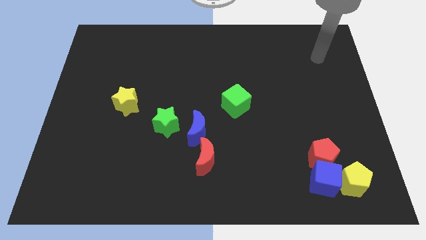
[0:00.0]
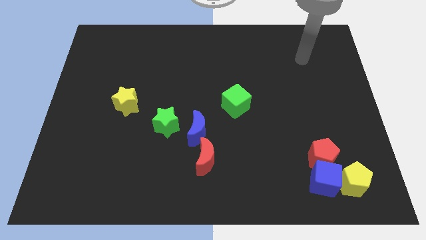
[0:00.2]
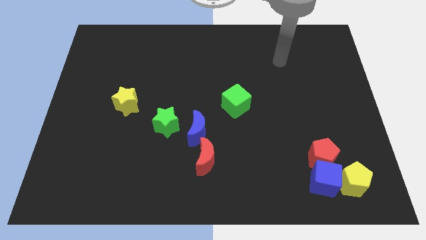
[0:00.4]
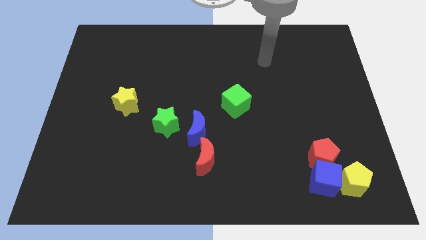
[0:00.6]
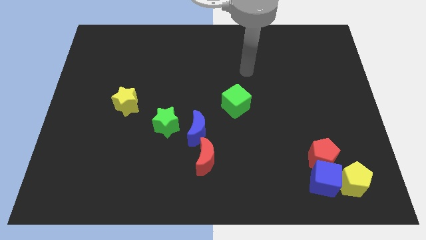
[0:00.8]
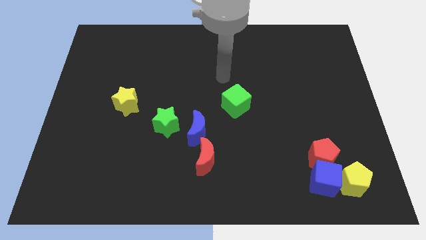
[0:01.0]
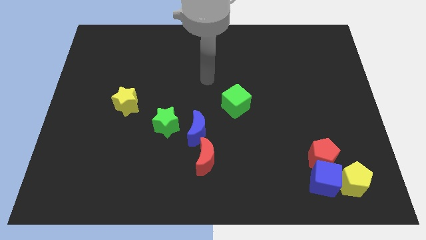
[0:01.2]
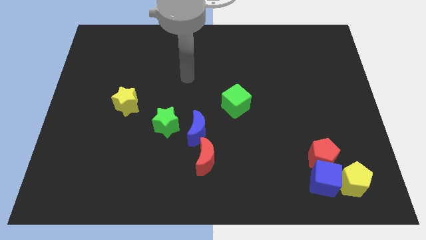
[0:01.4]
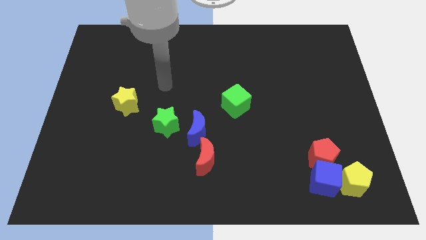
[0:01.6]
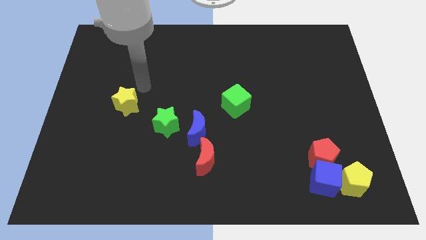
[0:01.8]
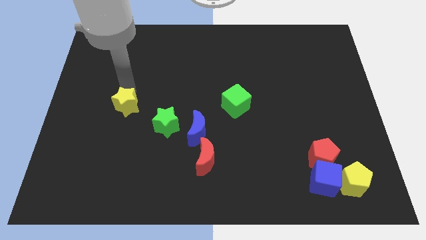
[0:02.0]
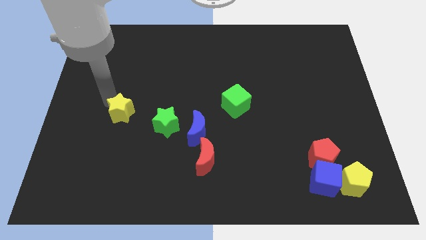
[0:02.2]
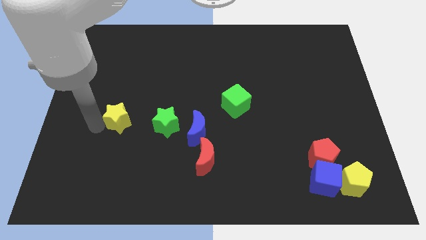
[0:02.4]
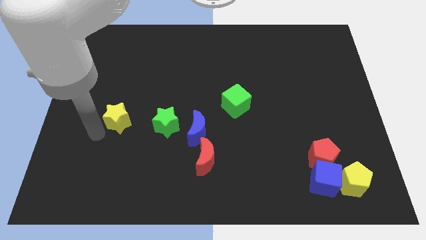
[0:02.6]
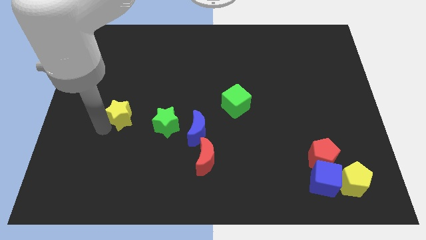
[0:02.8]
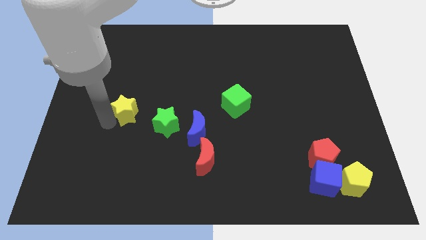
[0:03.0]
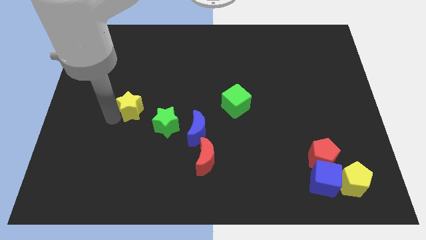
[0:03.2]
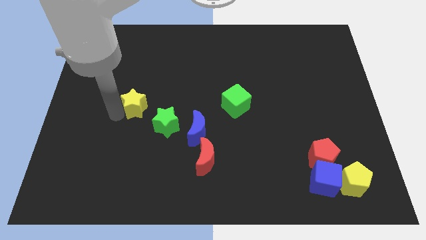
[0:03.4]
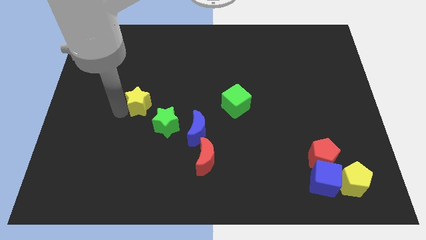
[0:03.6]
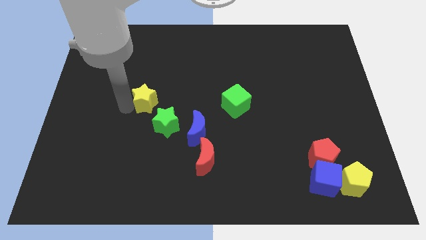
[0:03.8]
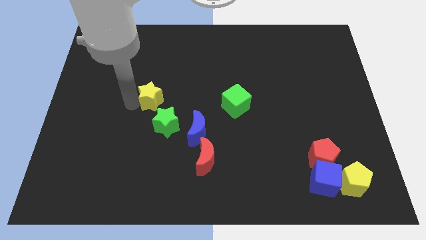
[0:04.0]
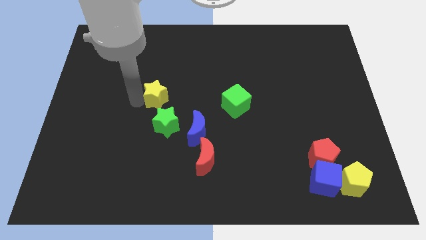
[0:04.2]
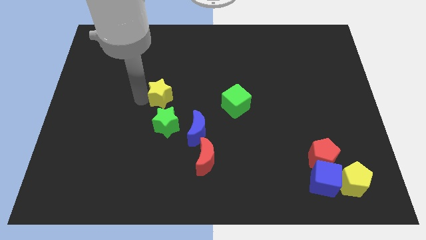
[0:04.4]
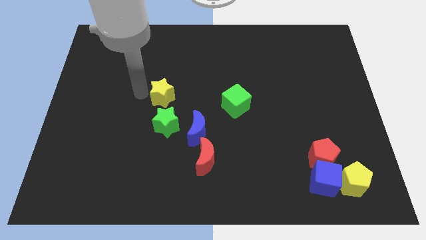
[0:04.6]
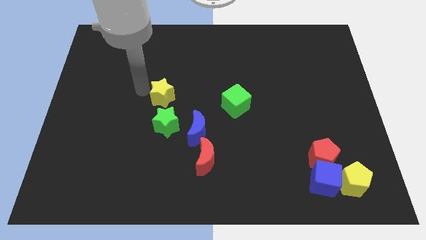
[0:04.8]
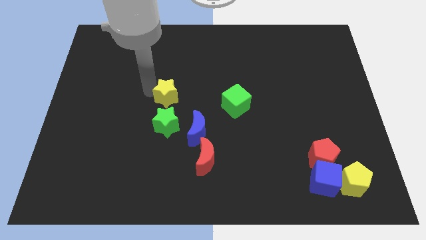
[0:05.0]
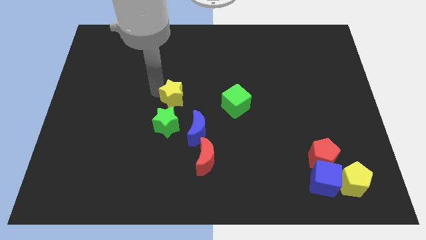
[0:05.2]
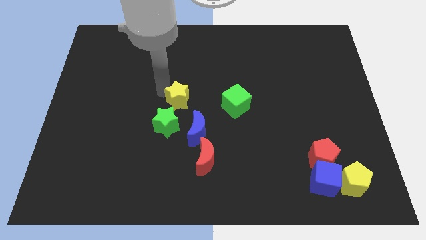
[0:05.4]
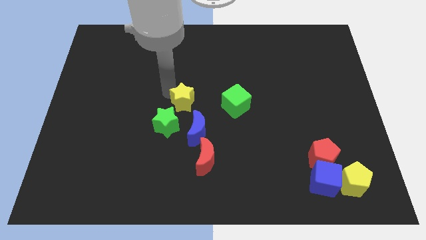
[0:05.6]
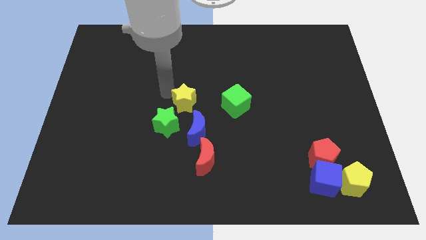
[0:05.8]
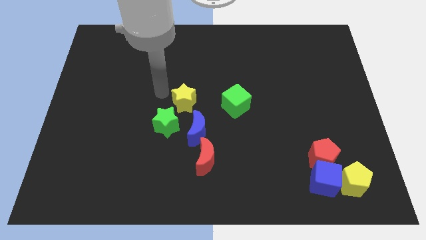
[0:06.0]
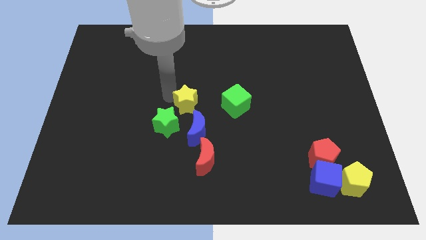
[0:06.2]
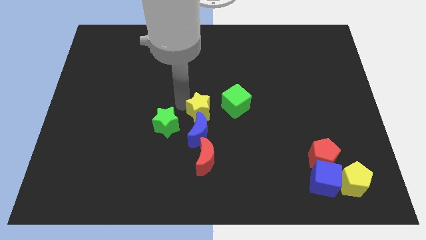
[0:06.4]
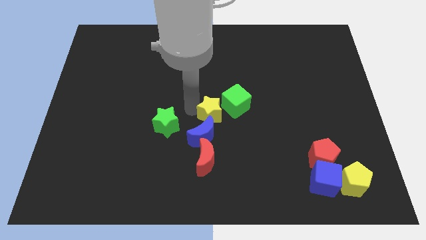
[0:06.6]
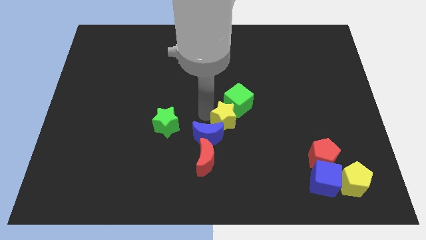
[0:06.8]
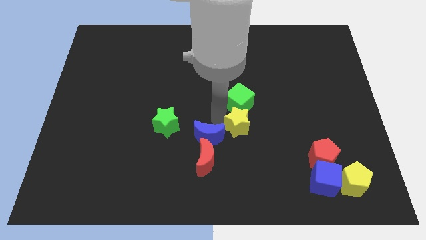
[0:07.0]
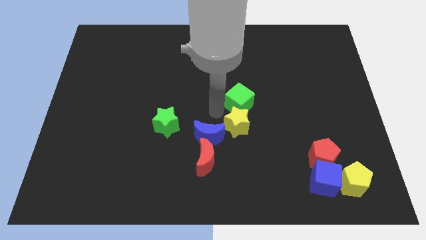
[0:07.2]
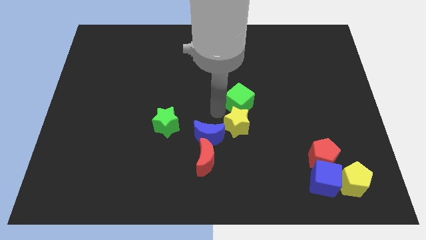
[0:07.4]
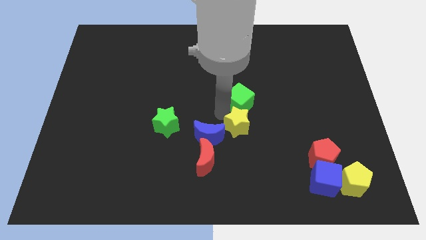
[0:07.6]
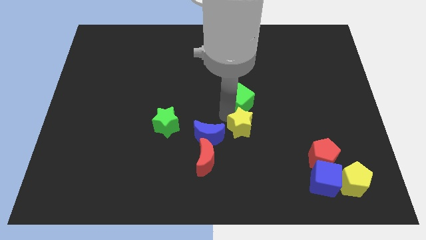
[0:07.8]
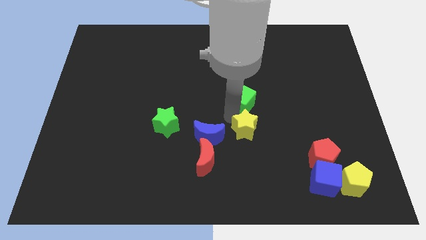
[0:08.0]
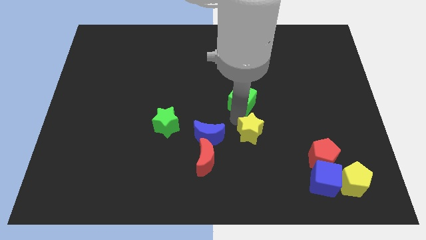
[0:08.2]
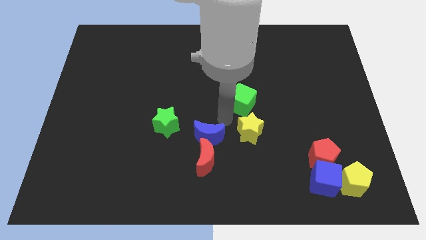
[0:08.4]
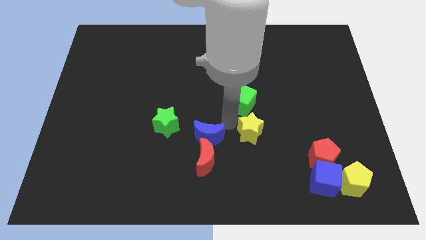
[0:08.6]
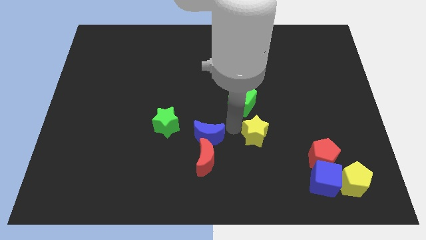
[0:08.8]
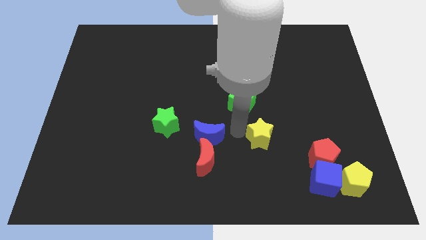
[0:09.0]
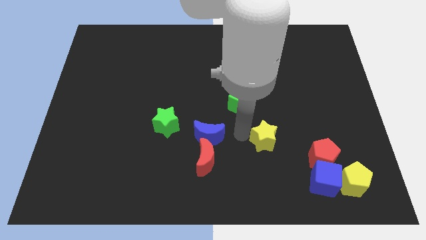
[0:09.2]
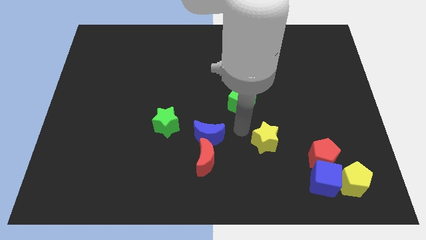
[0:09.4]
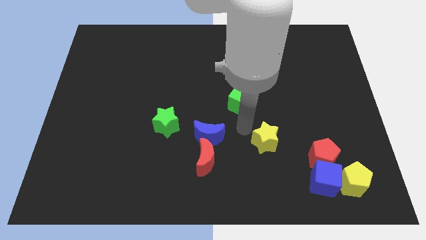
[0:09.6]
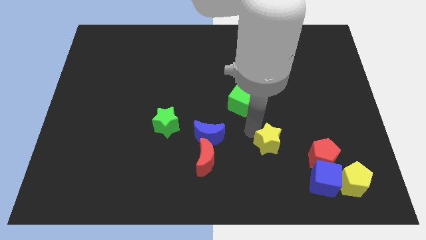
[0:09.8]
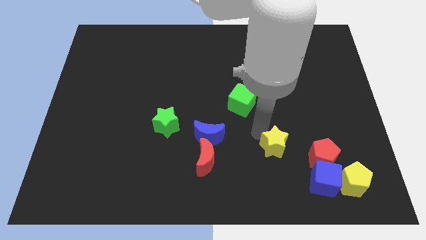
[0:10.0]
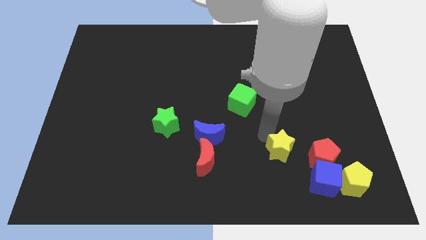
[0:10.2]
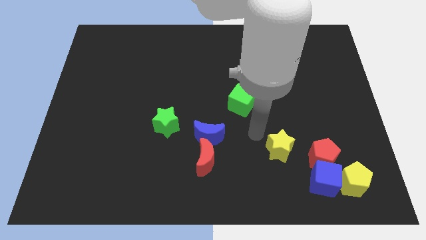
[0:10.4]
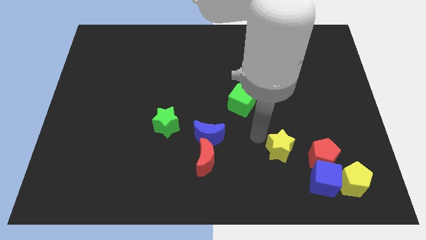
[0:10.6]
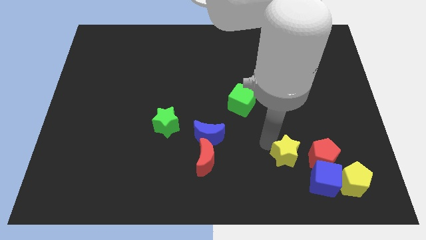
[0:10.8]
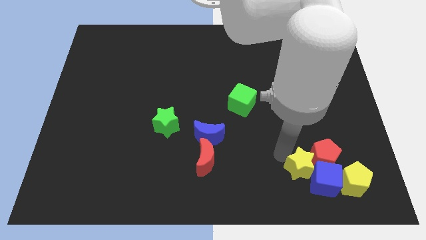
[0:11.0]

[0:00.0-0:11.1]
put the yellow star to the blue cube

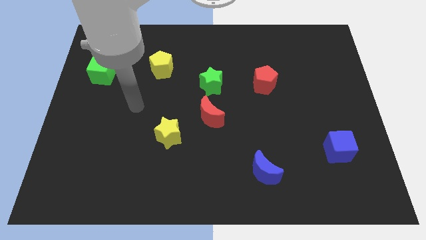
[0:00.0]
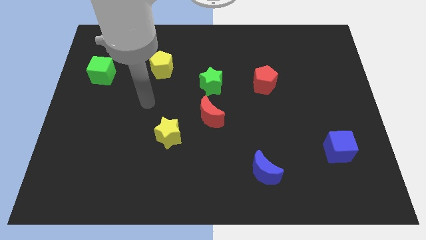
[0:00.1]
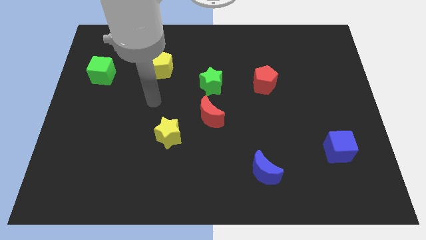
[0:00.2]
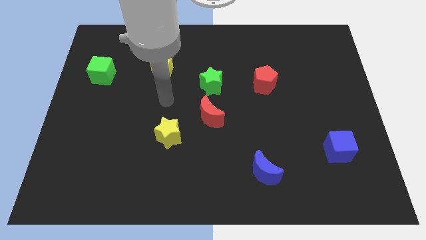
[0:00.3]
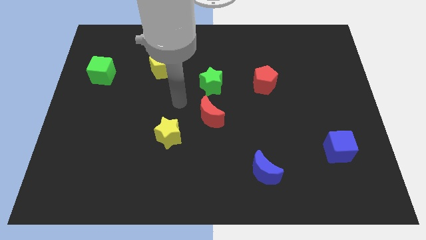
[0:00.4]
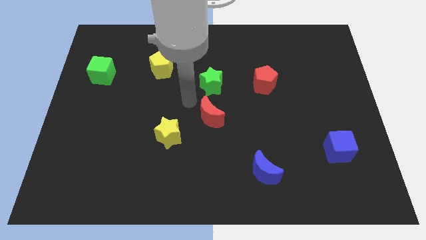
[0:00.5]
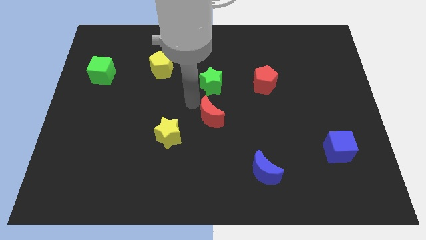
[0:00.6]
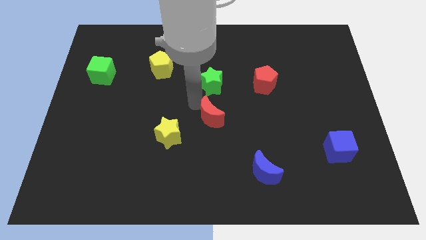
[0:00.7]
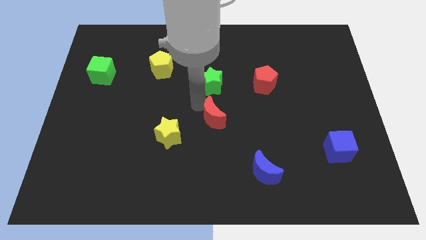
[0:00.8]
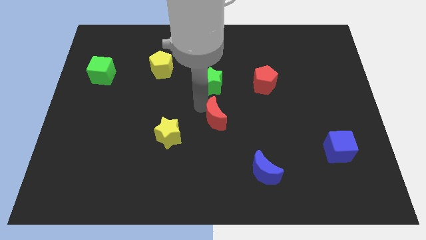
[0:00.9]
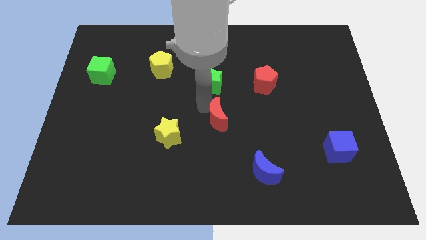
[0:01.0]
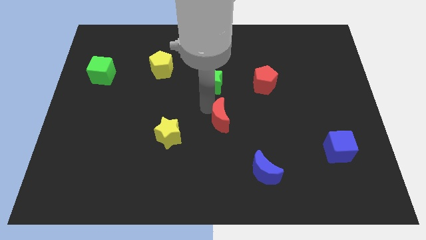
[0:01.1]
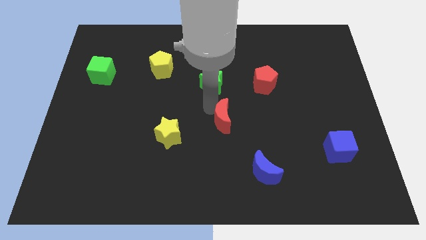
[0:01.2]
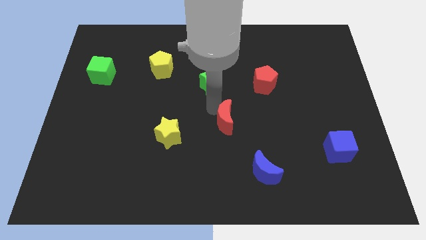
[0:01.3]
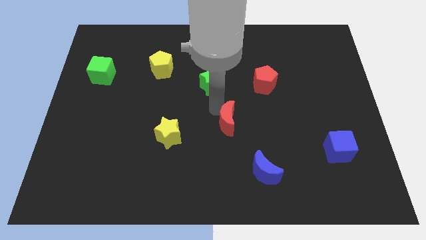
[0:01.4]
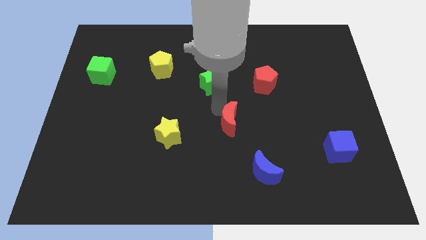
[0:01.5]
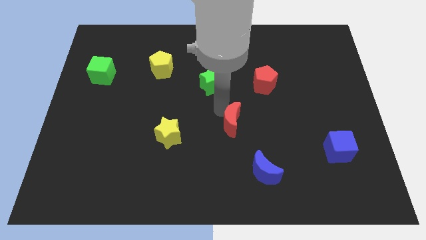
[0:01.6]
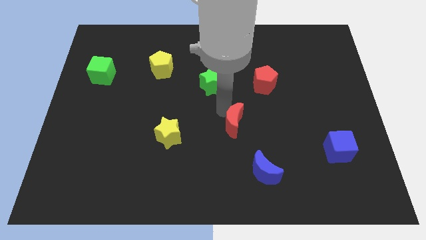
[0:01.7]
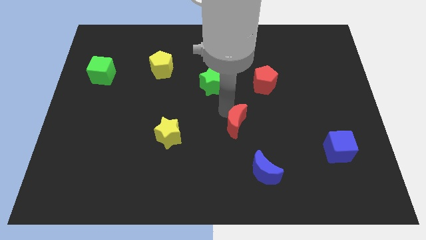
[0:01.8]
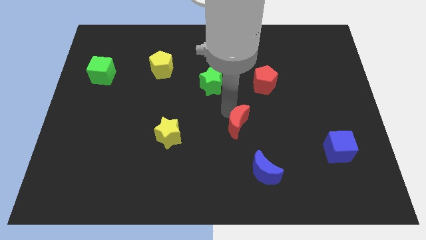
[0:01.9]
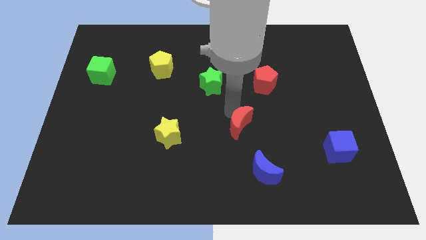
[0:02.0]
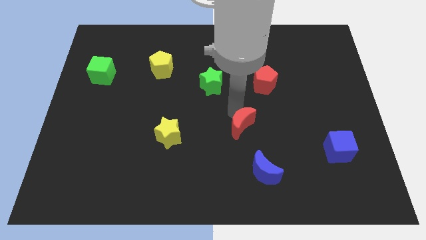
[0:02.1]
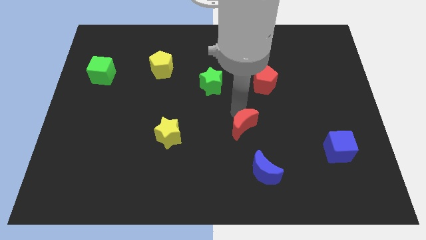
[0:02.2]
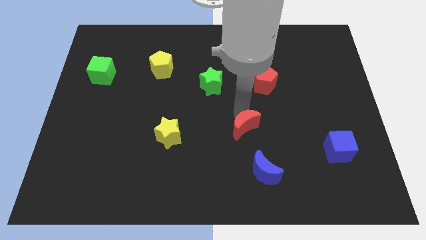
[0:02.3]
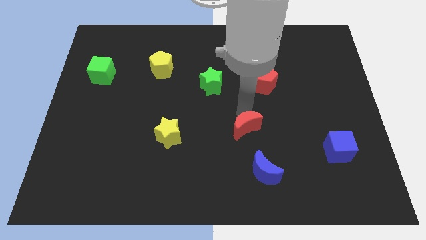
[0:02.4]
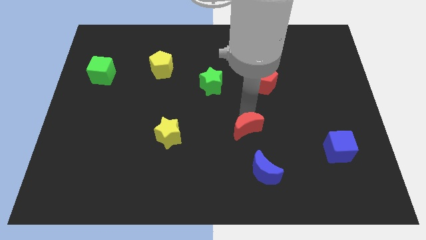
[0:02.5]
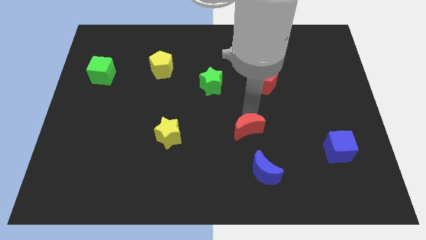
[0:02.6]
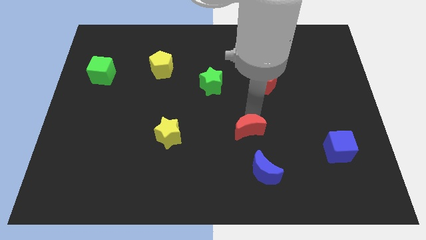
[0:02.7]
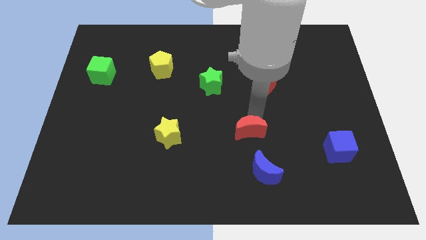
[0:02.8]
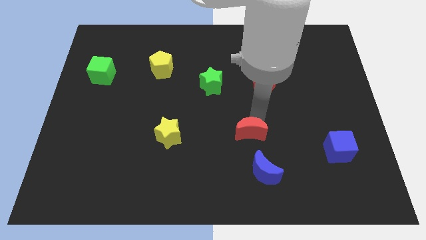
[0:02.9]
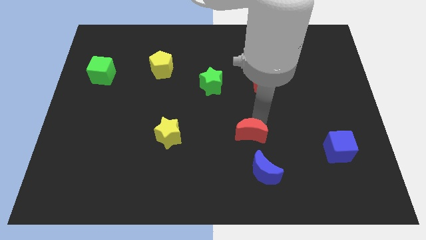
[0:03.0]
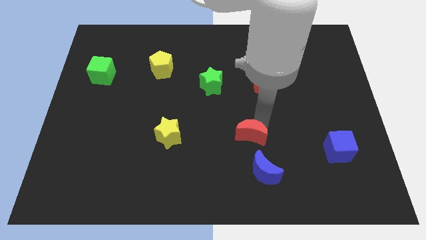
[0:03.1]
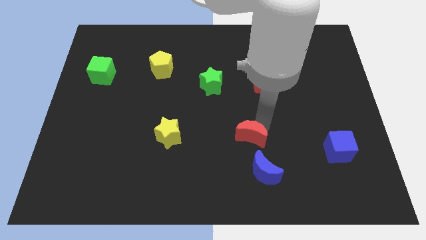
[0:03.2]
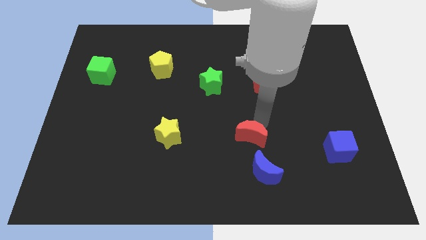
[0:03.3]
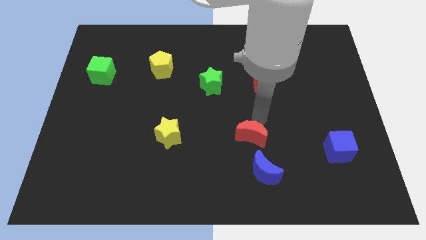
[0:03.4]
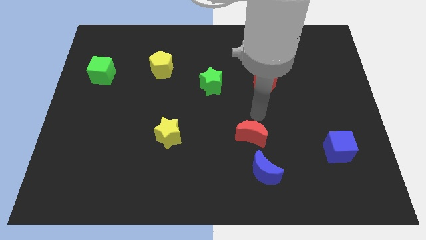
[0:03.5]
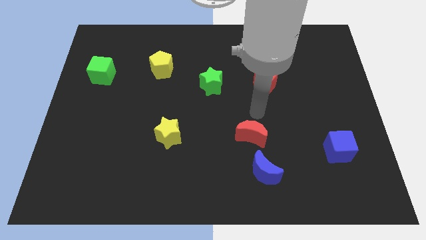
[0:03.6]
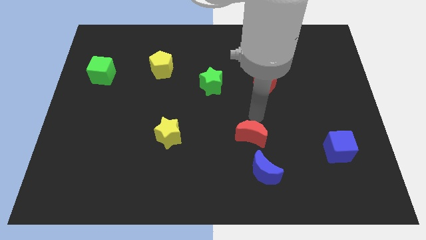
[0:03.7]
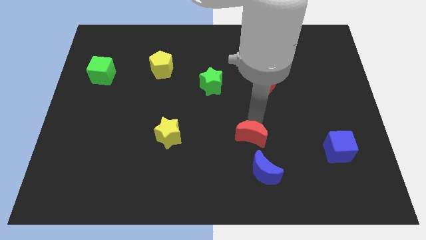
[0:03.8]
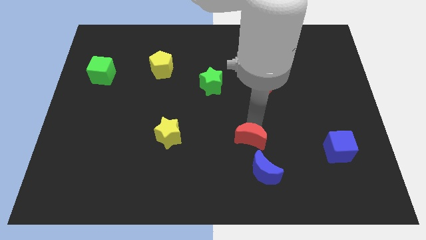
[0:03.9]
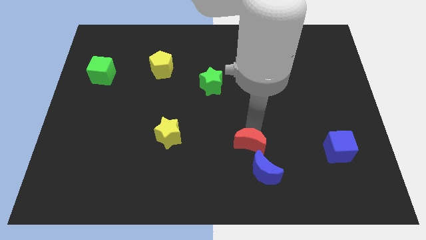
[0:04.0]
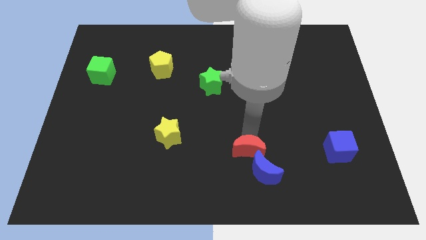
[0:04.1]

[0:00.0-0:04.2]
slide the red moon next to the blue moon
